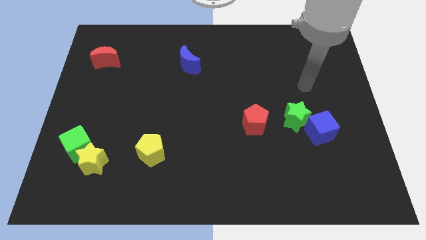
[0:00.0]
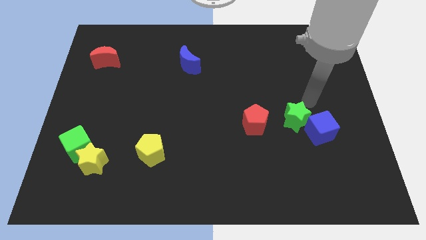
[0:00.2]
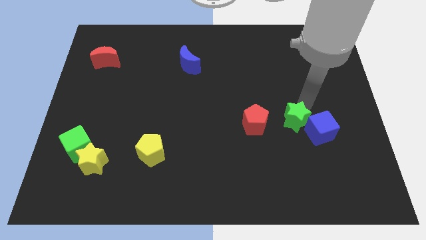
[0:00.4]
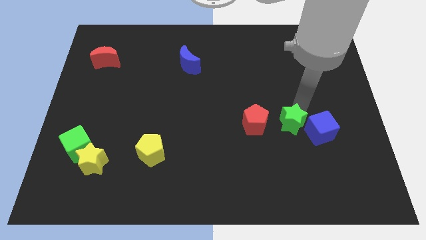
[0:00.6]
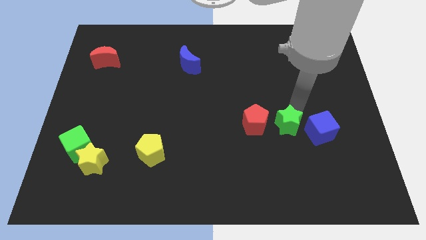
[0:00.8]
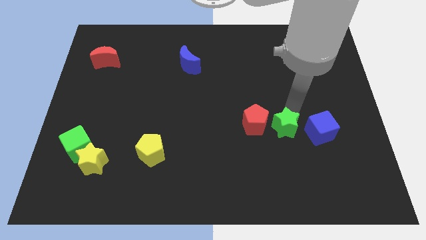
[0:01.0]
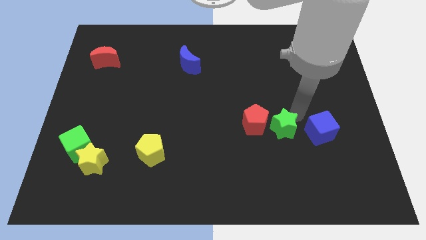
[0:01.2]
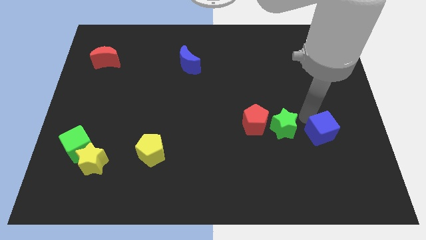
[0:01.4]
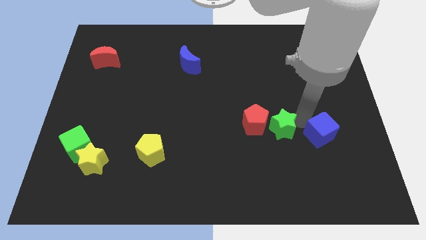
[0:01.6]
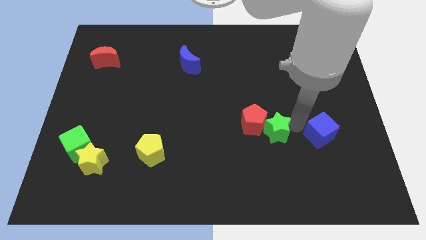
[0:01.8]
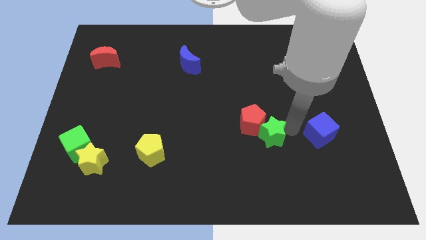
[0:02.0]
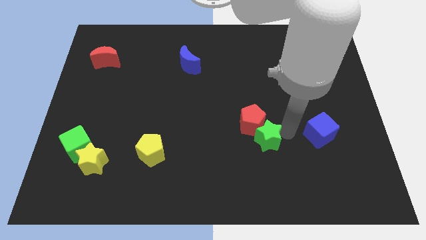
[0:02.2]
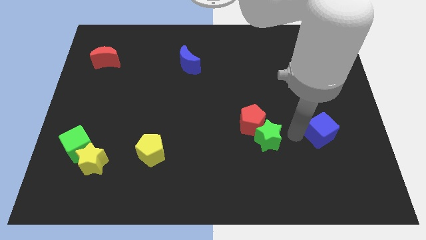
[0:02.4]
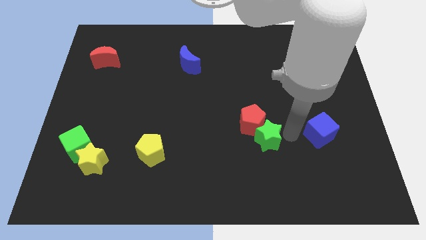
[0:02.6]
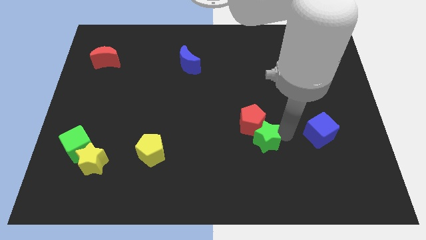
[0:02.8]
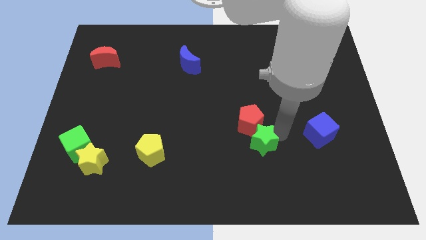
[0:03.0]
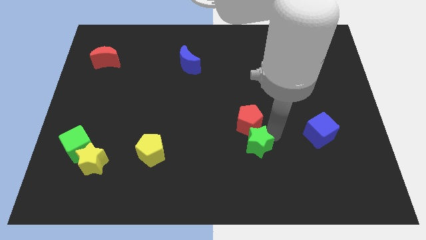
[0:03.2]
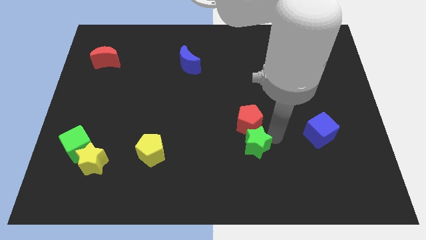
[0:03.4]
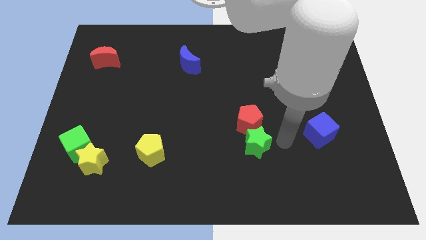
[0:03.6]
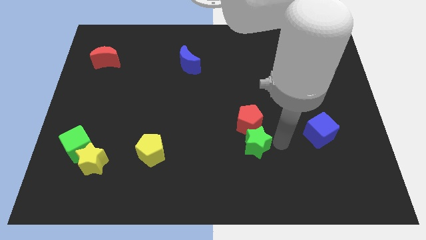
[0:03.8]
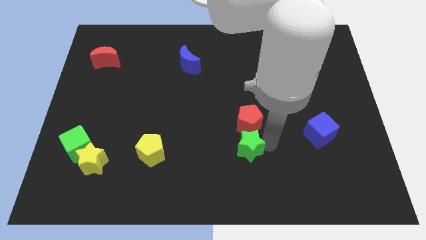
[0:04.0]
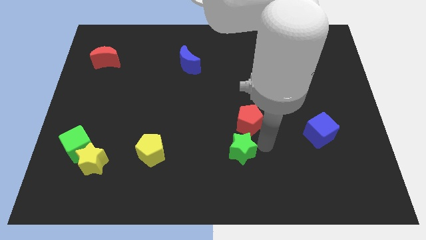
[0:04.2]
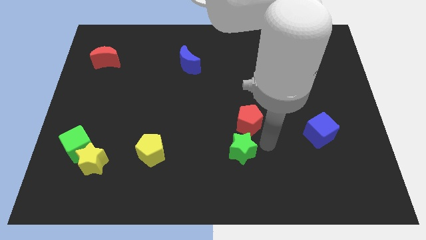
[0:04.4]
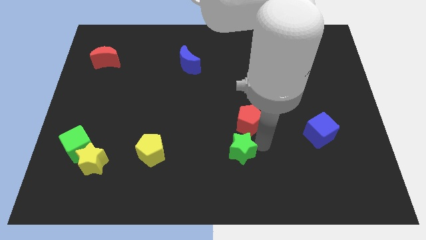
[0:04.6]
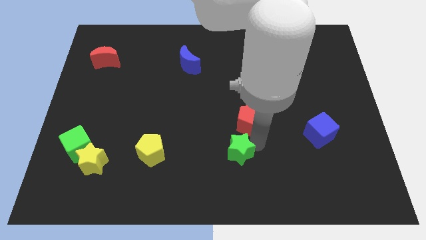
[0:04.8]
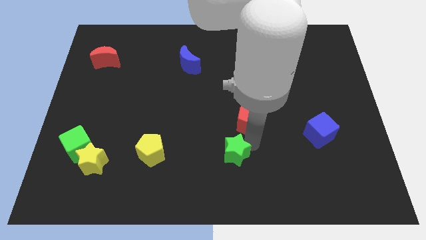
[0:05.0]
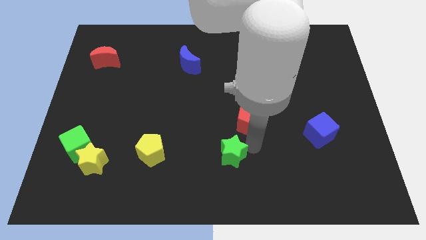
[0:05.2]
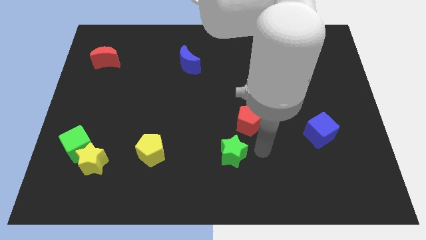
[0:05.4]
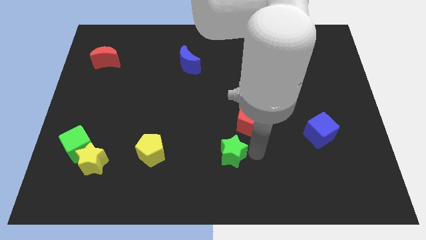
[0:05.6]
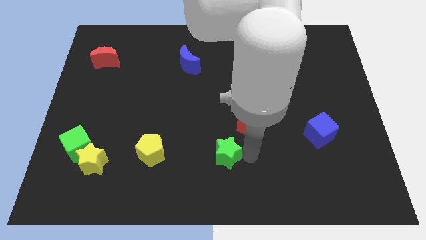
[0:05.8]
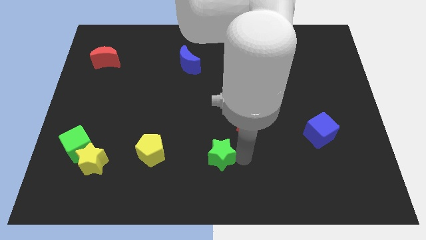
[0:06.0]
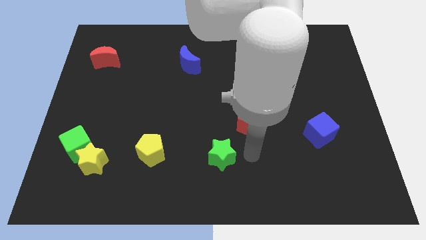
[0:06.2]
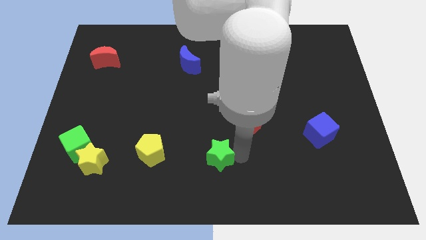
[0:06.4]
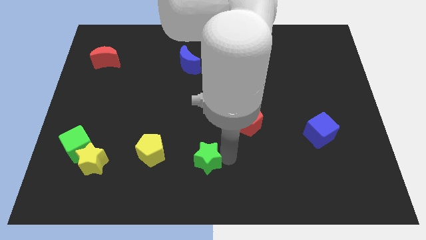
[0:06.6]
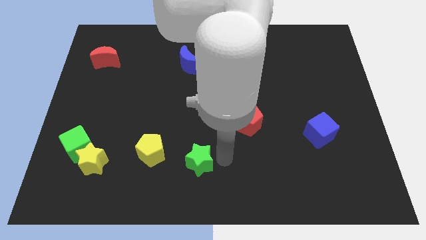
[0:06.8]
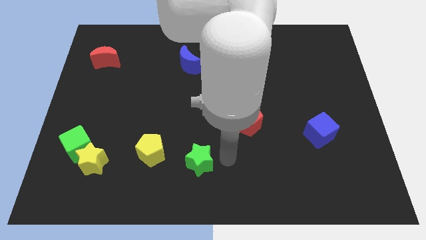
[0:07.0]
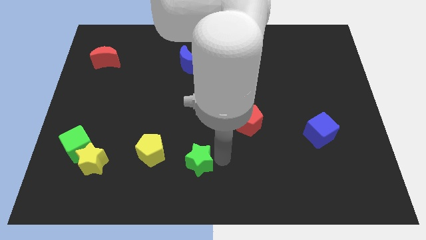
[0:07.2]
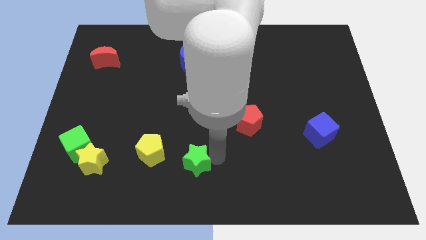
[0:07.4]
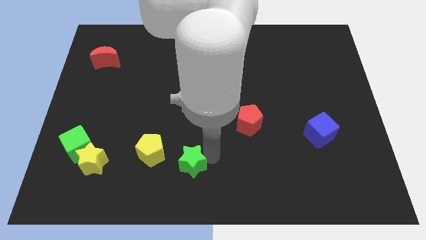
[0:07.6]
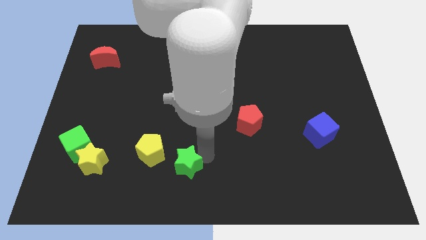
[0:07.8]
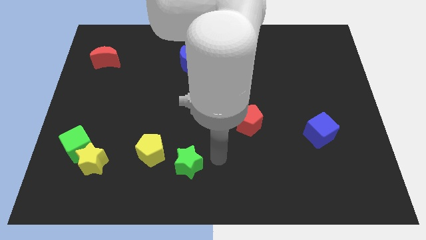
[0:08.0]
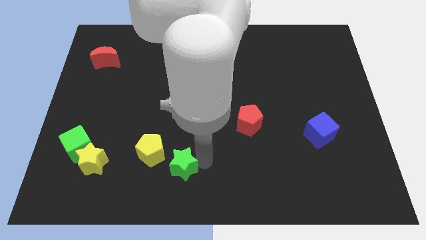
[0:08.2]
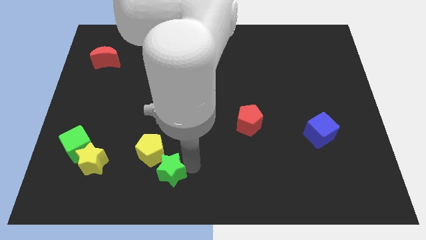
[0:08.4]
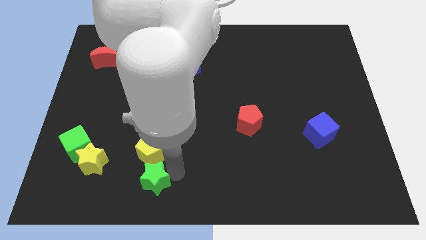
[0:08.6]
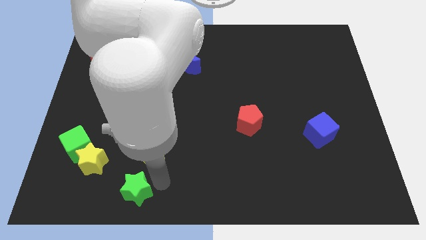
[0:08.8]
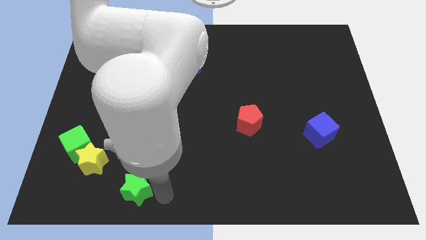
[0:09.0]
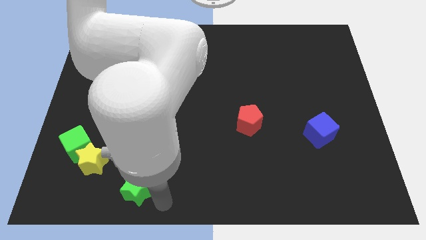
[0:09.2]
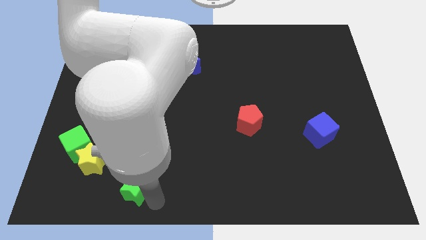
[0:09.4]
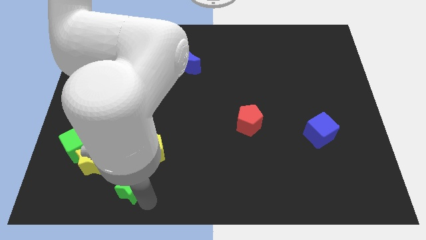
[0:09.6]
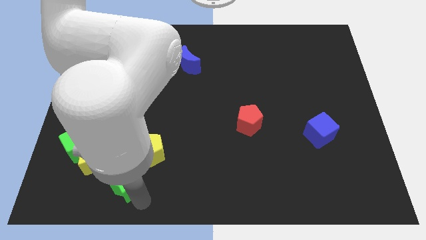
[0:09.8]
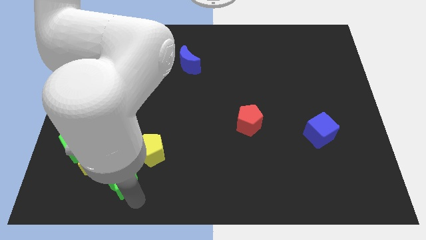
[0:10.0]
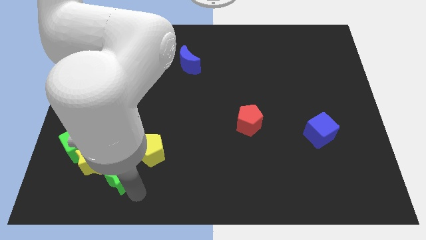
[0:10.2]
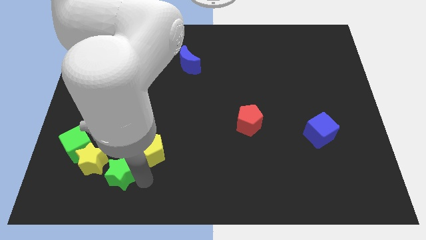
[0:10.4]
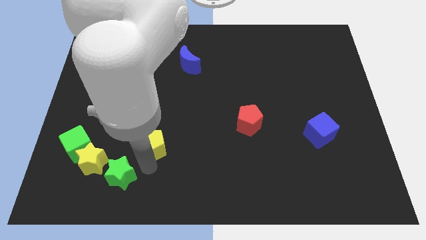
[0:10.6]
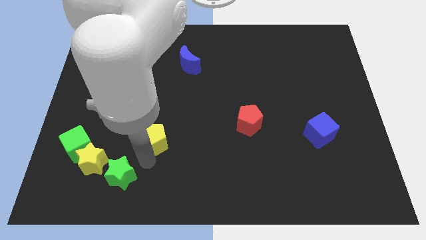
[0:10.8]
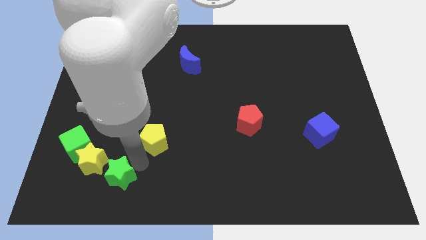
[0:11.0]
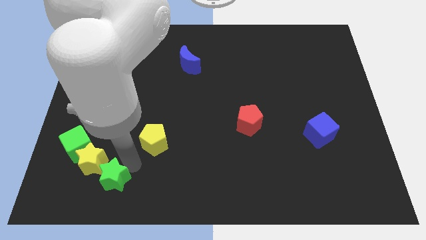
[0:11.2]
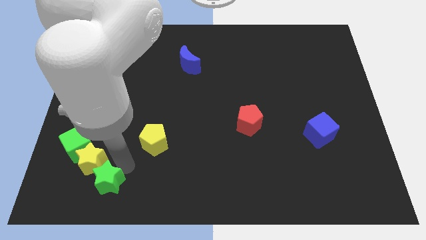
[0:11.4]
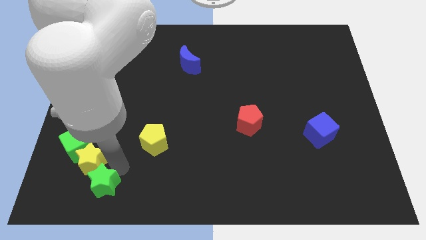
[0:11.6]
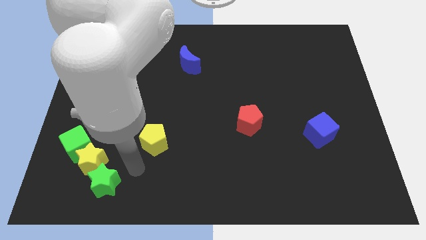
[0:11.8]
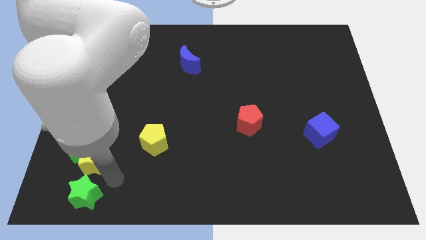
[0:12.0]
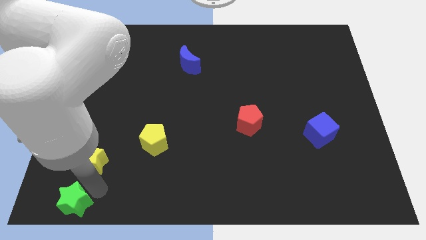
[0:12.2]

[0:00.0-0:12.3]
put the green star to the lower left corner
